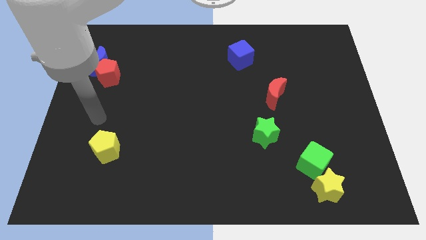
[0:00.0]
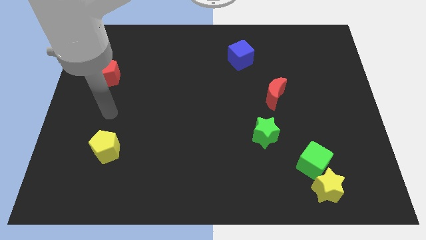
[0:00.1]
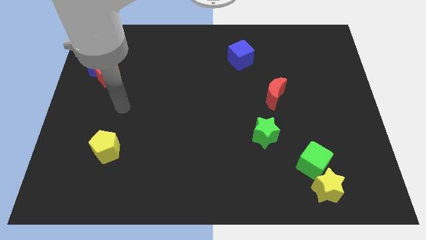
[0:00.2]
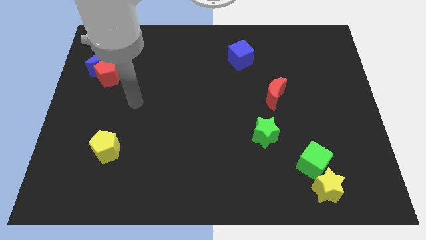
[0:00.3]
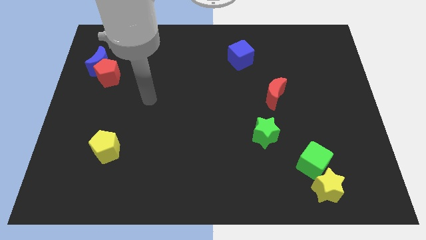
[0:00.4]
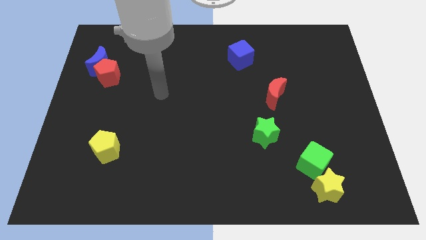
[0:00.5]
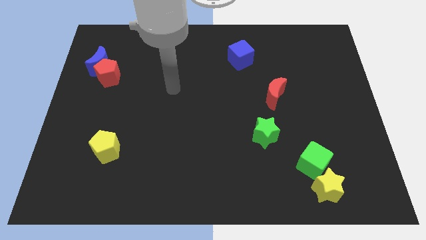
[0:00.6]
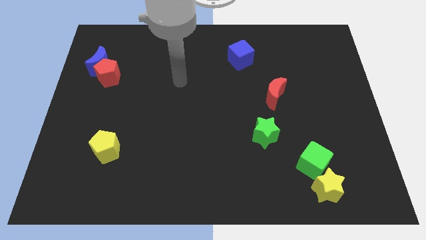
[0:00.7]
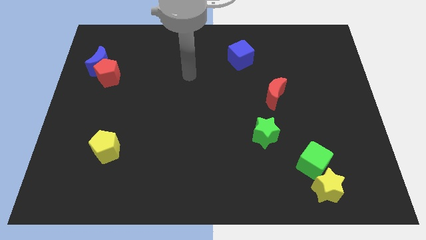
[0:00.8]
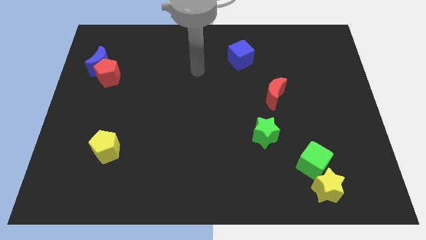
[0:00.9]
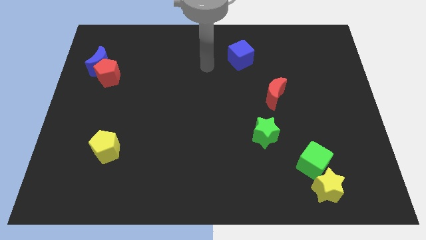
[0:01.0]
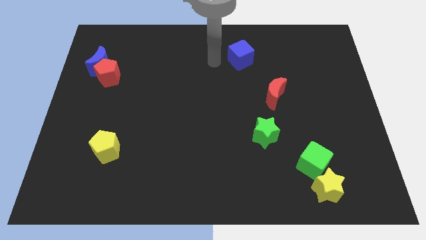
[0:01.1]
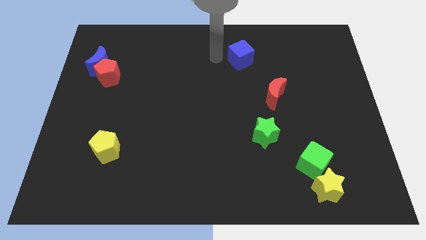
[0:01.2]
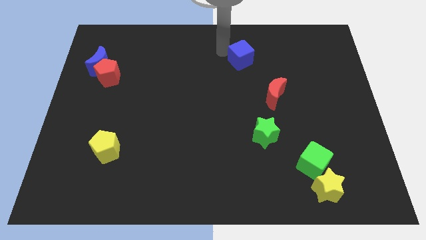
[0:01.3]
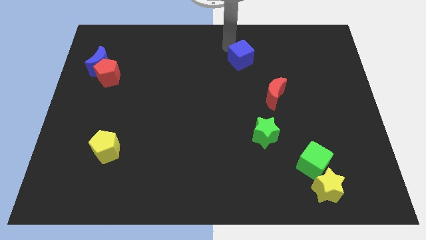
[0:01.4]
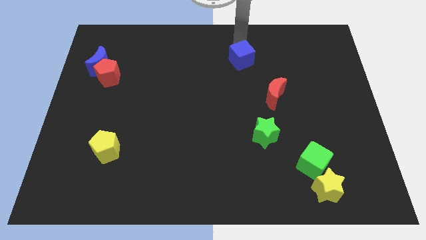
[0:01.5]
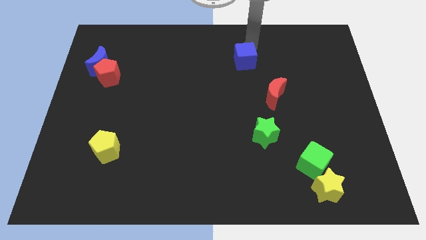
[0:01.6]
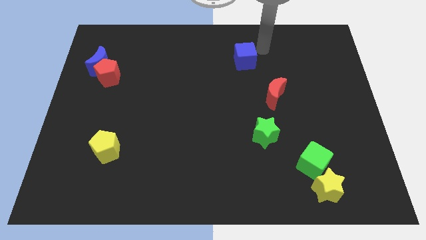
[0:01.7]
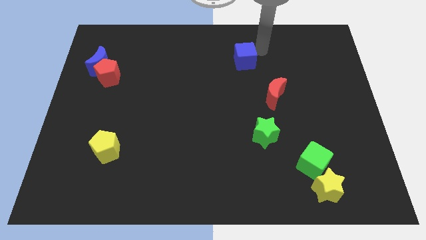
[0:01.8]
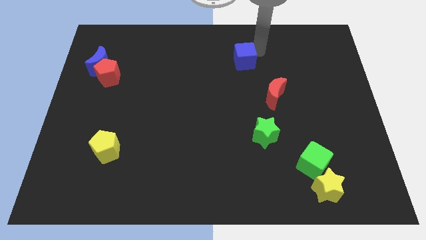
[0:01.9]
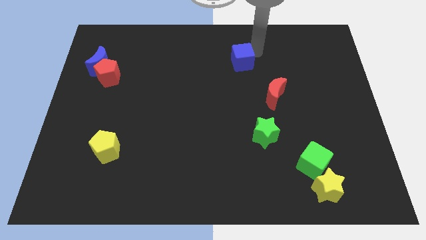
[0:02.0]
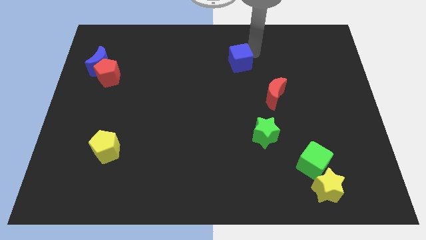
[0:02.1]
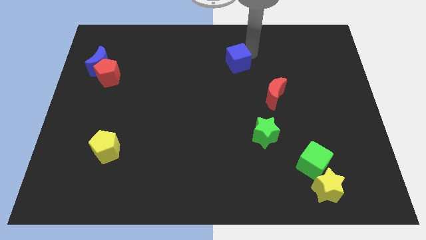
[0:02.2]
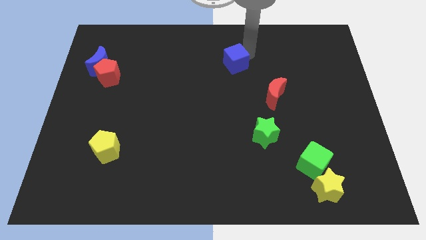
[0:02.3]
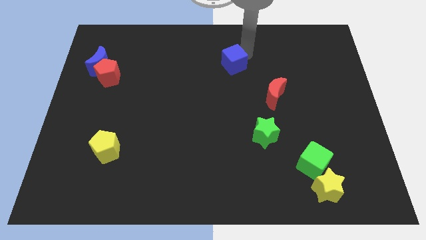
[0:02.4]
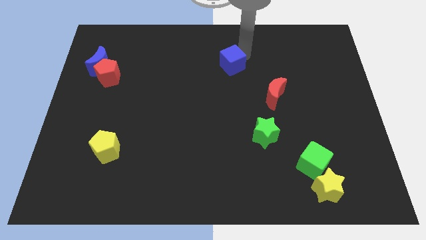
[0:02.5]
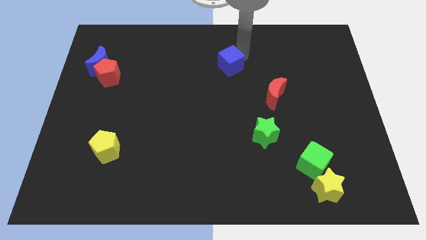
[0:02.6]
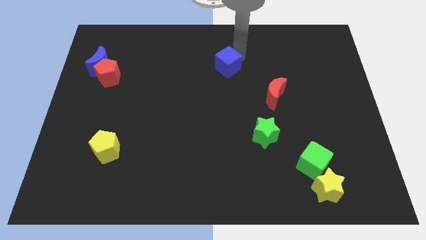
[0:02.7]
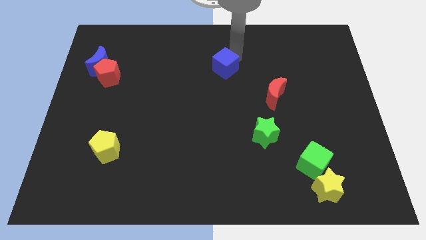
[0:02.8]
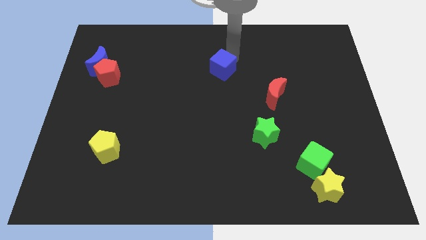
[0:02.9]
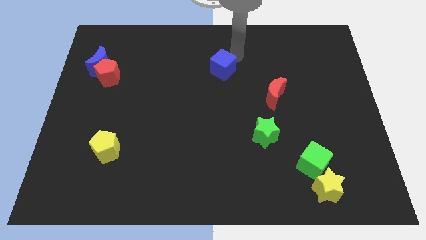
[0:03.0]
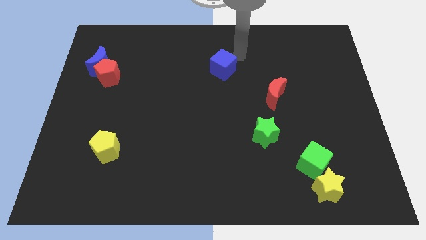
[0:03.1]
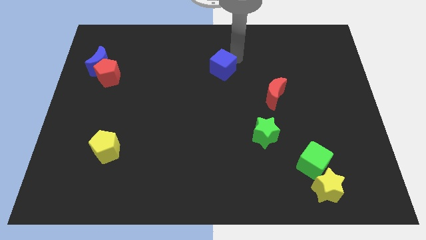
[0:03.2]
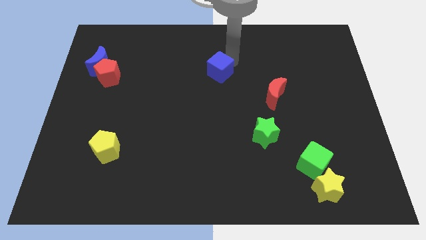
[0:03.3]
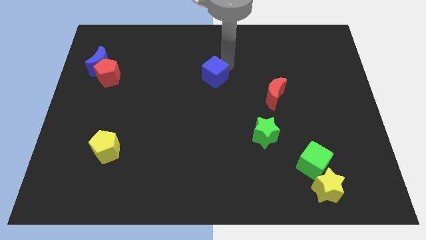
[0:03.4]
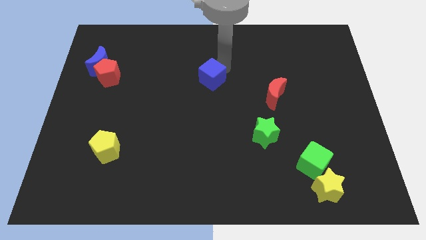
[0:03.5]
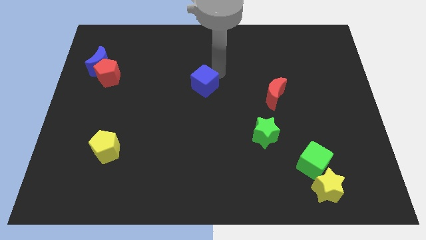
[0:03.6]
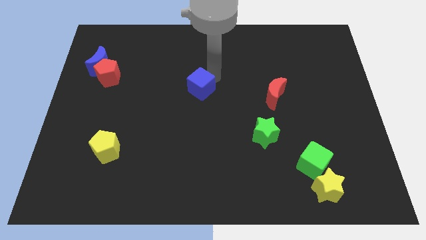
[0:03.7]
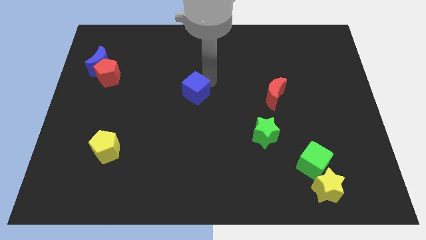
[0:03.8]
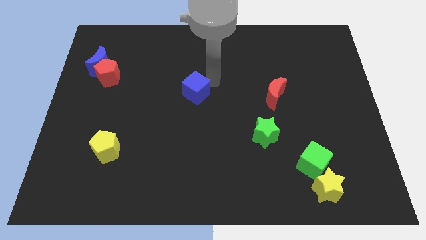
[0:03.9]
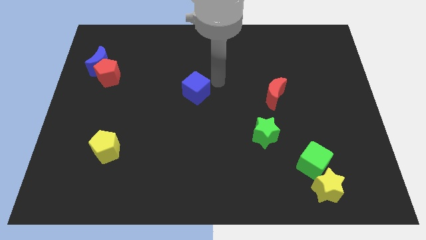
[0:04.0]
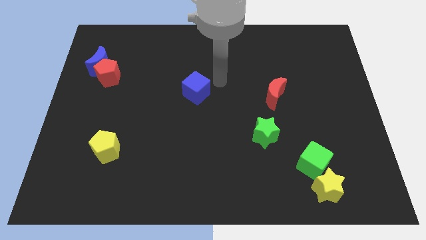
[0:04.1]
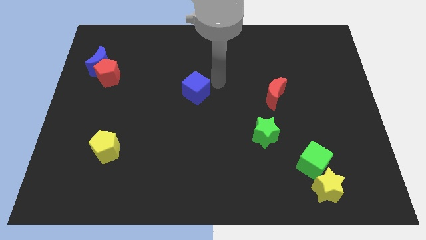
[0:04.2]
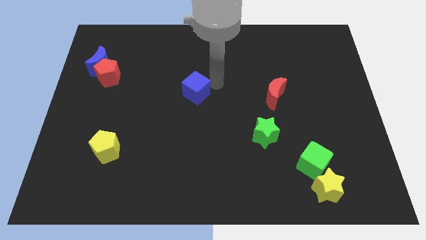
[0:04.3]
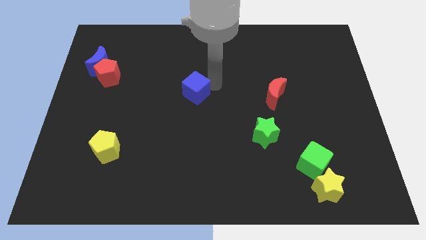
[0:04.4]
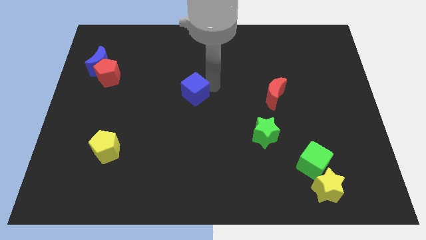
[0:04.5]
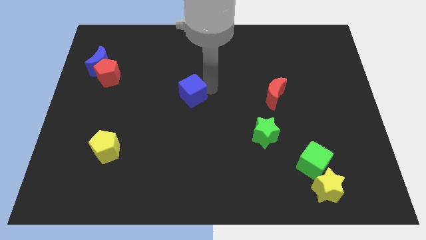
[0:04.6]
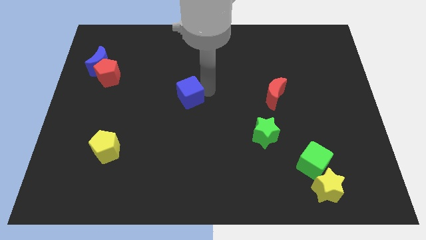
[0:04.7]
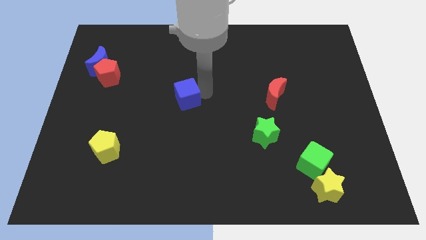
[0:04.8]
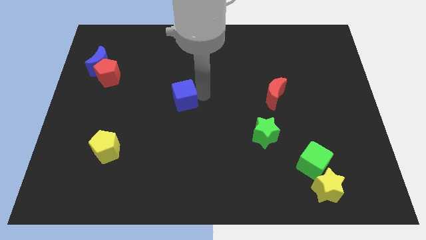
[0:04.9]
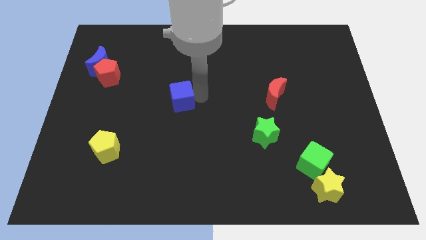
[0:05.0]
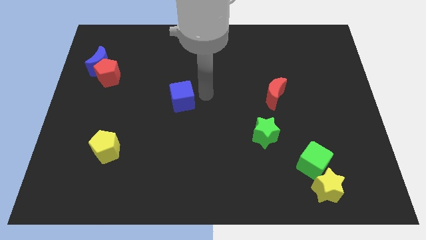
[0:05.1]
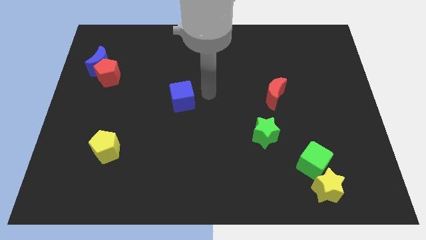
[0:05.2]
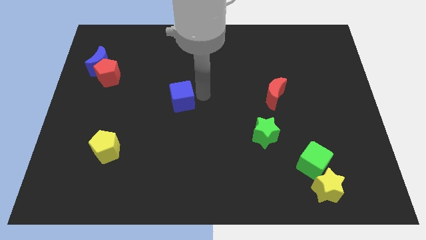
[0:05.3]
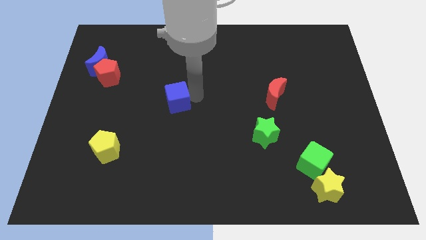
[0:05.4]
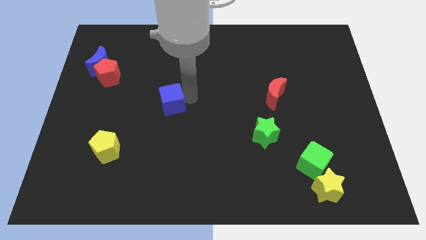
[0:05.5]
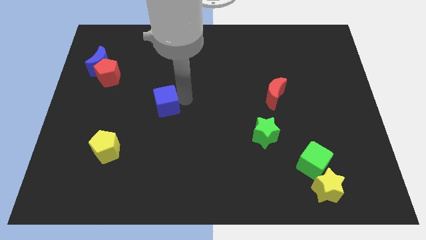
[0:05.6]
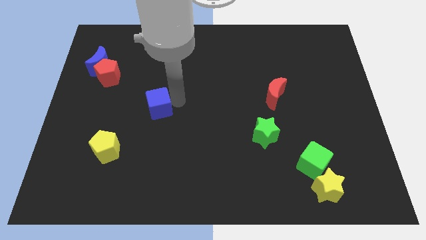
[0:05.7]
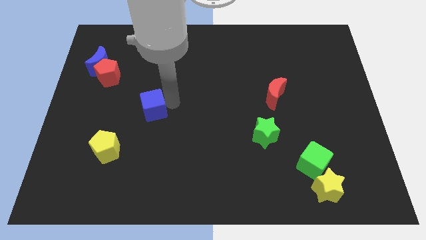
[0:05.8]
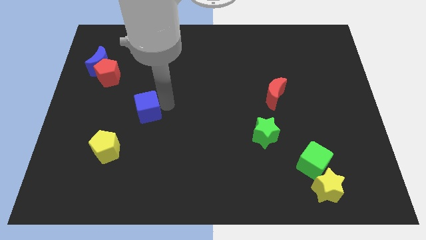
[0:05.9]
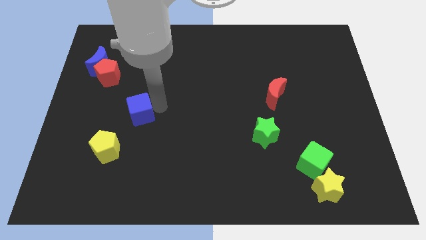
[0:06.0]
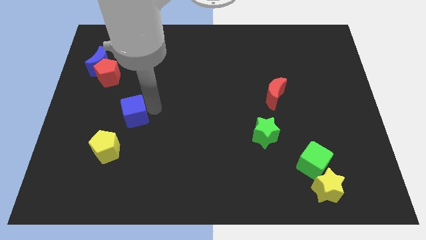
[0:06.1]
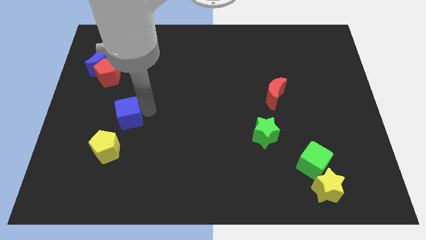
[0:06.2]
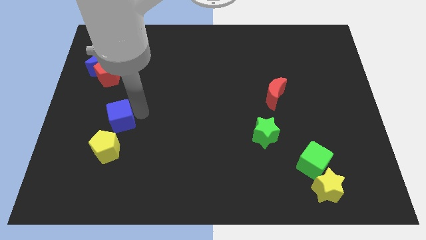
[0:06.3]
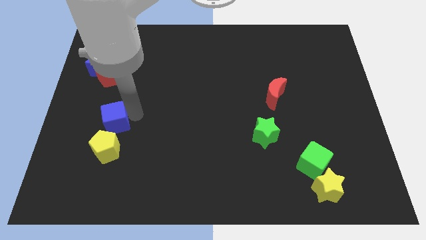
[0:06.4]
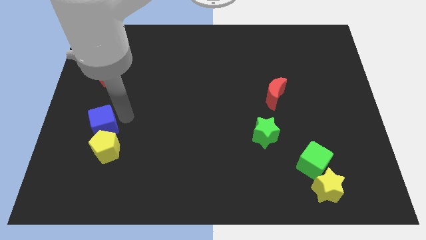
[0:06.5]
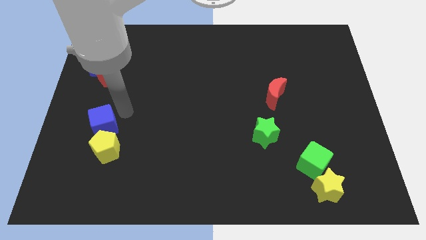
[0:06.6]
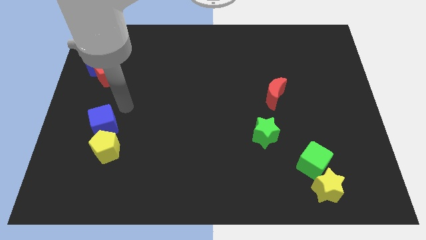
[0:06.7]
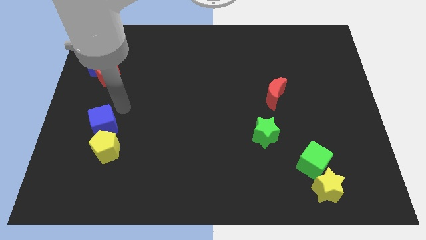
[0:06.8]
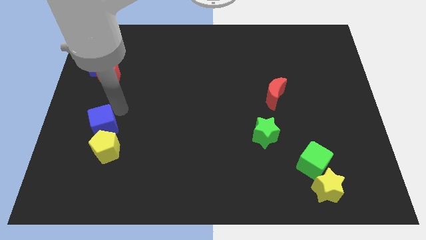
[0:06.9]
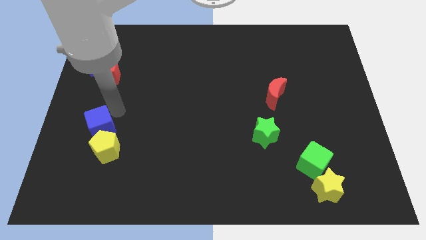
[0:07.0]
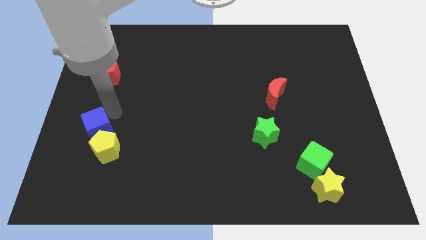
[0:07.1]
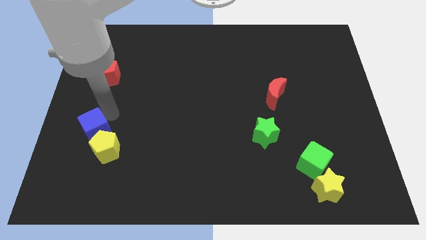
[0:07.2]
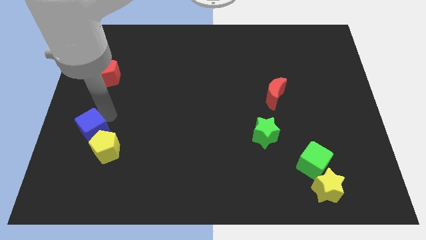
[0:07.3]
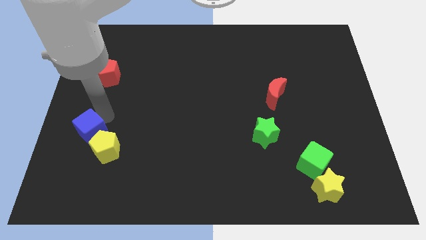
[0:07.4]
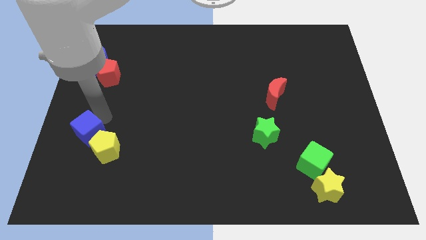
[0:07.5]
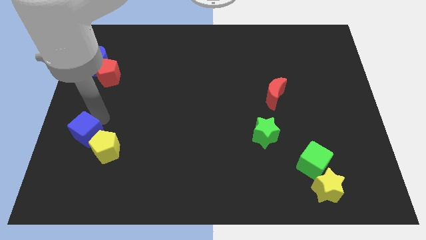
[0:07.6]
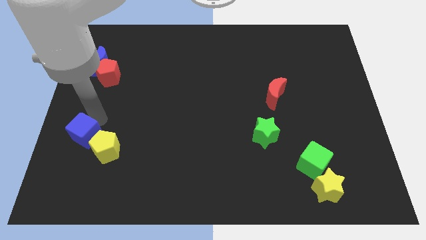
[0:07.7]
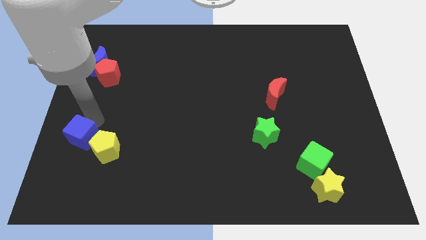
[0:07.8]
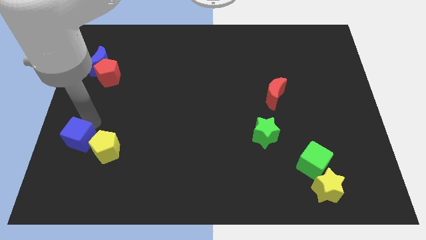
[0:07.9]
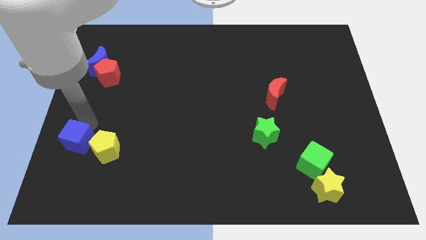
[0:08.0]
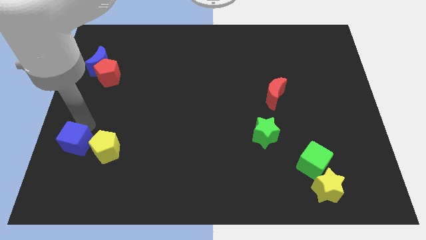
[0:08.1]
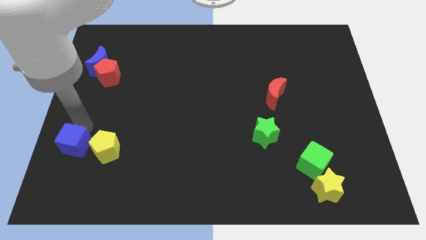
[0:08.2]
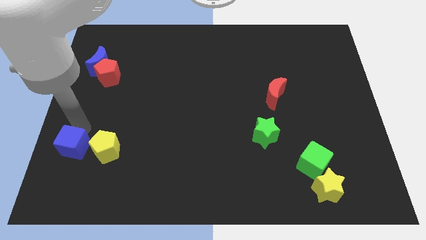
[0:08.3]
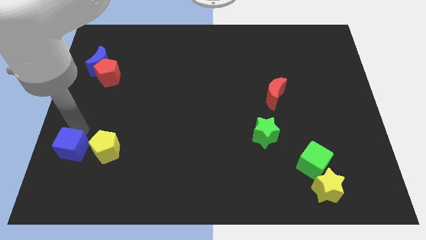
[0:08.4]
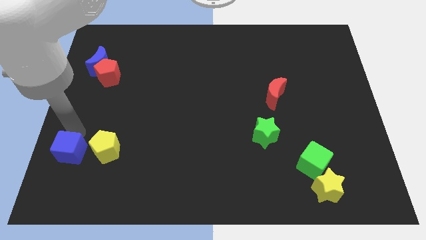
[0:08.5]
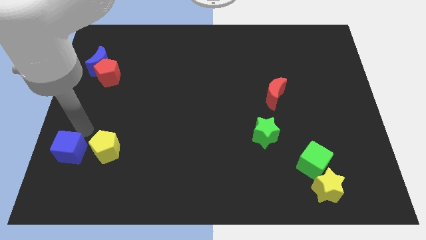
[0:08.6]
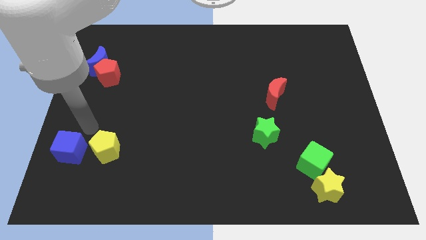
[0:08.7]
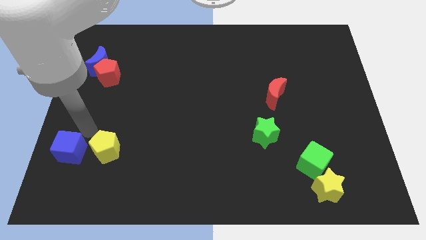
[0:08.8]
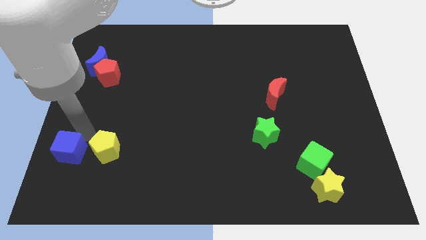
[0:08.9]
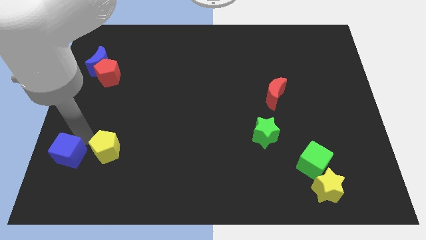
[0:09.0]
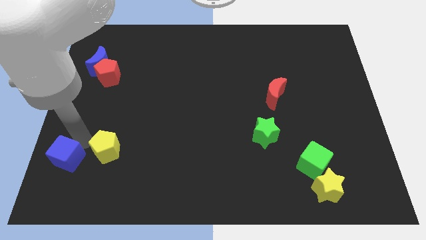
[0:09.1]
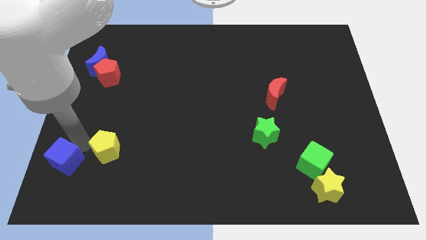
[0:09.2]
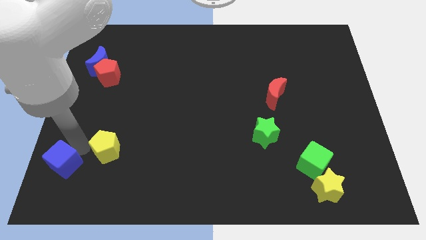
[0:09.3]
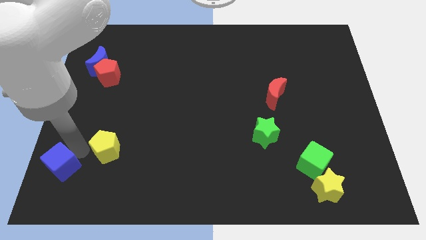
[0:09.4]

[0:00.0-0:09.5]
put the blue cube to the bottom left corner
